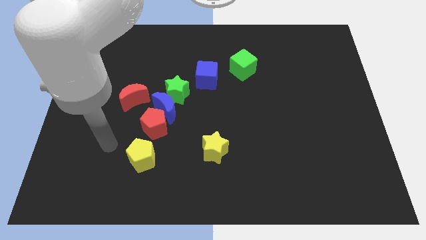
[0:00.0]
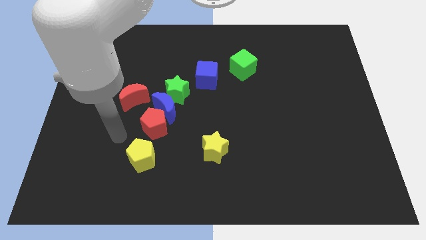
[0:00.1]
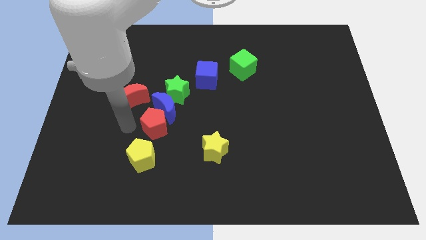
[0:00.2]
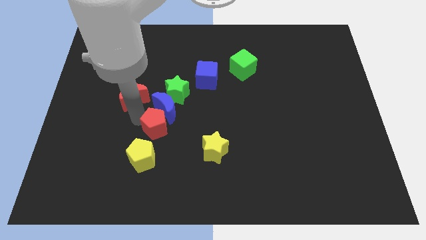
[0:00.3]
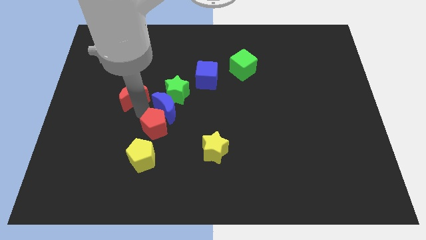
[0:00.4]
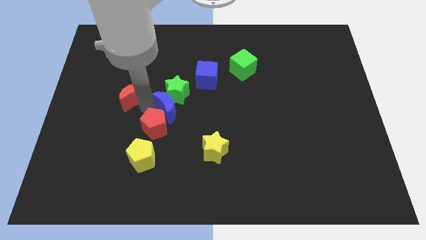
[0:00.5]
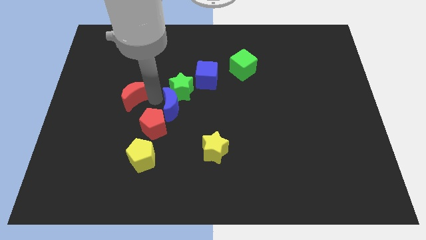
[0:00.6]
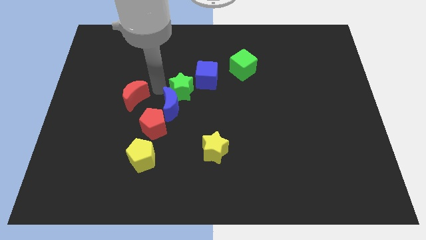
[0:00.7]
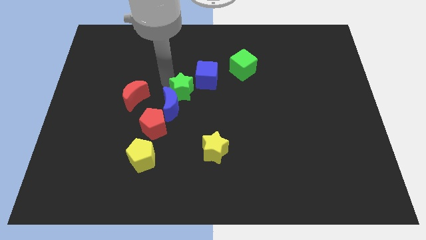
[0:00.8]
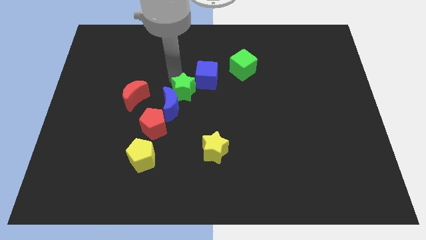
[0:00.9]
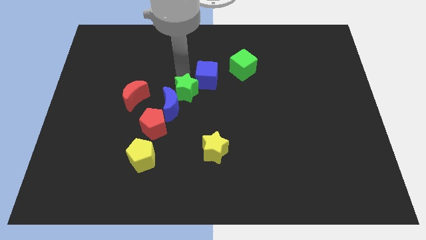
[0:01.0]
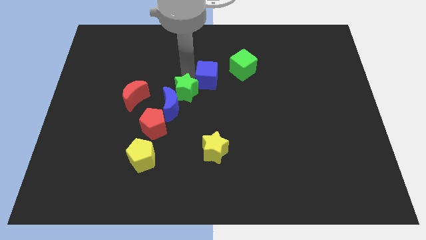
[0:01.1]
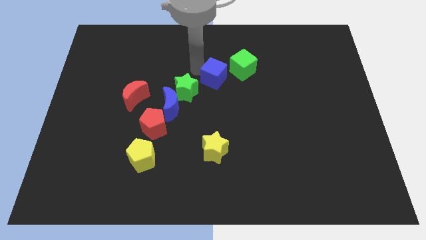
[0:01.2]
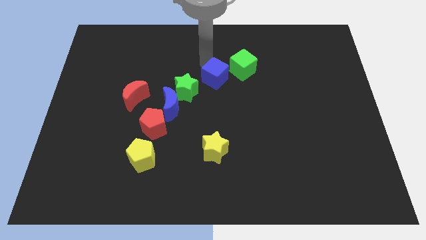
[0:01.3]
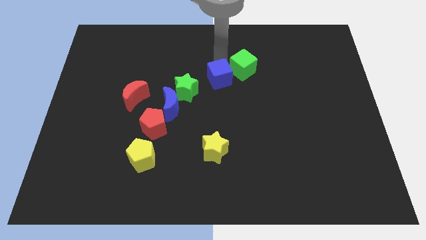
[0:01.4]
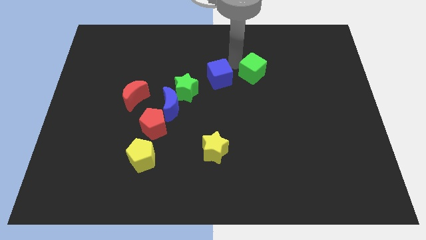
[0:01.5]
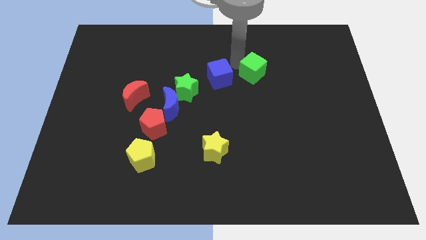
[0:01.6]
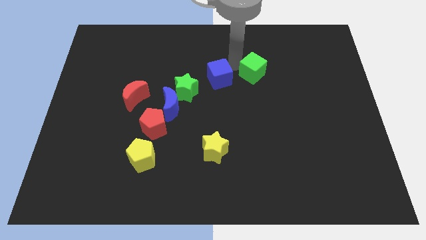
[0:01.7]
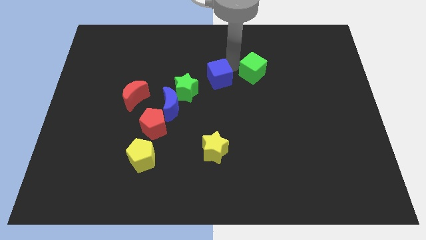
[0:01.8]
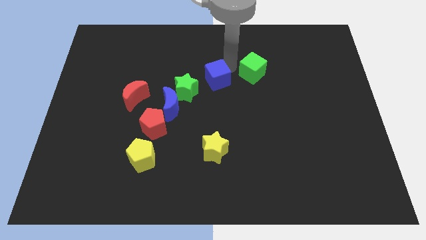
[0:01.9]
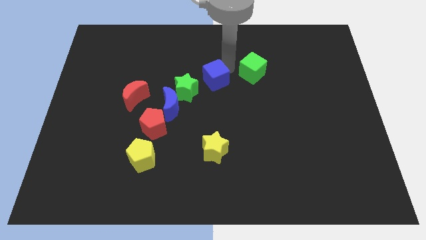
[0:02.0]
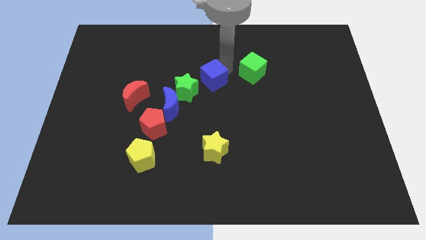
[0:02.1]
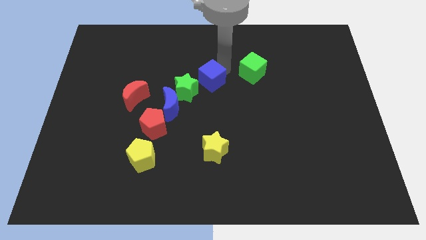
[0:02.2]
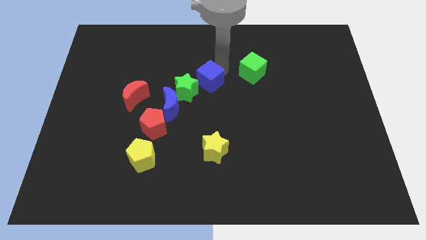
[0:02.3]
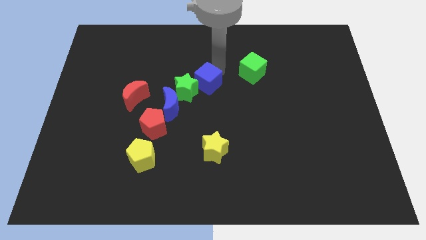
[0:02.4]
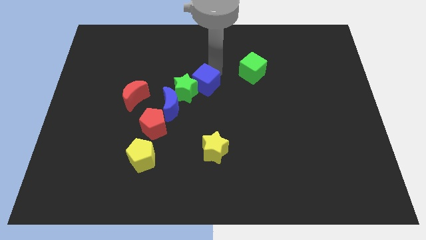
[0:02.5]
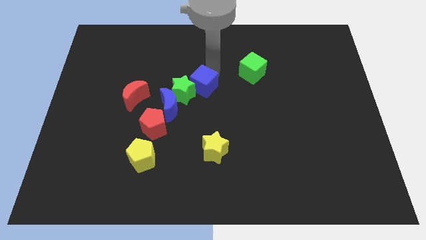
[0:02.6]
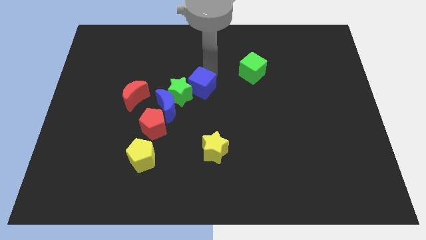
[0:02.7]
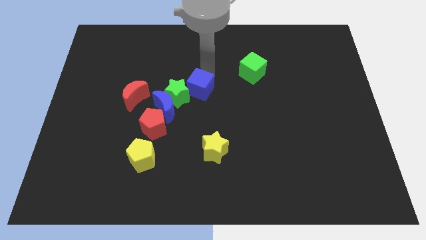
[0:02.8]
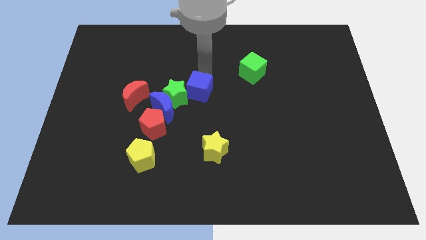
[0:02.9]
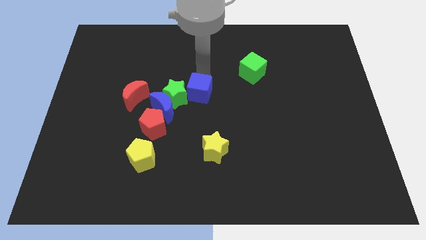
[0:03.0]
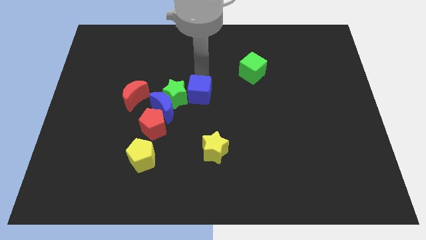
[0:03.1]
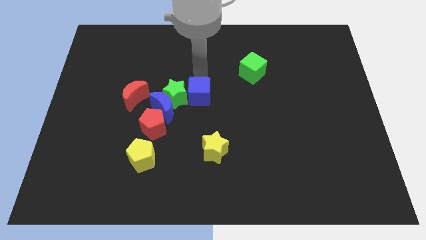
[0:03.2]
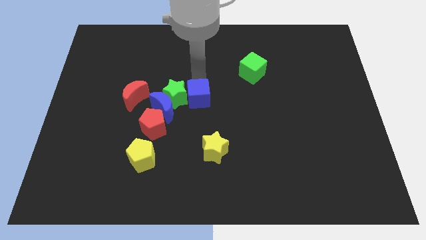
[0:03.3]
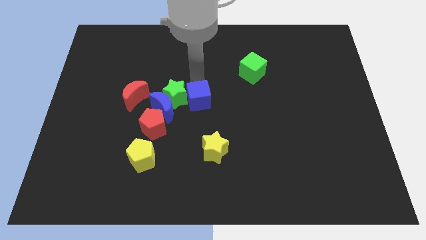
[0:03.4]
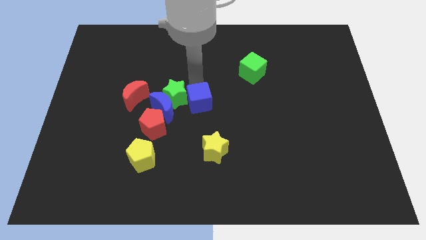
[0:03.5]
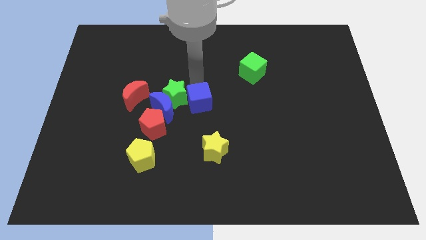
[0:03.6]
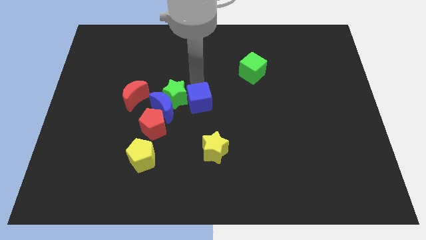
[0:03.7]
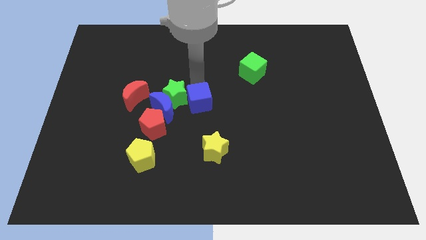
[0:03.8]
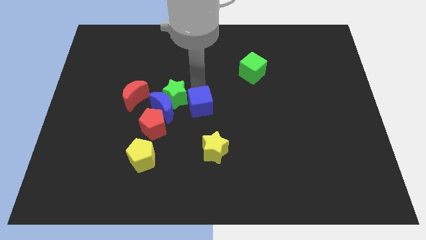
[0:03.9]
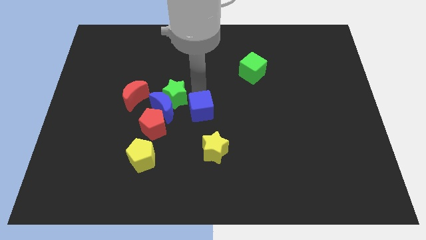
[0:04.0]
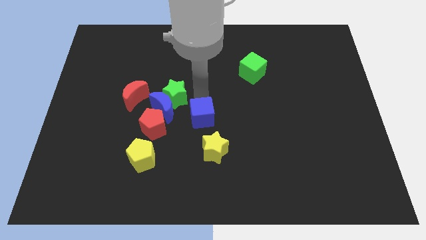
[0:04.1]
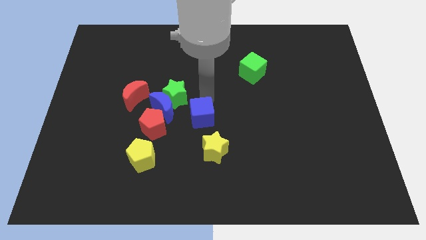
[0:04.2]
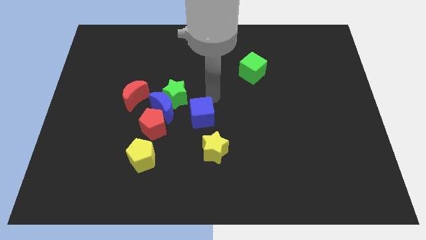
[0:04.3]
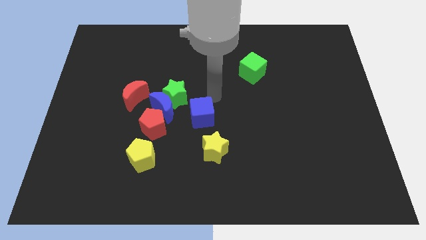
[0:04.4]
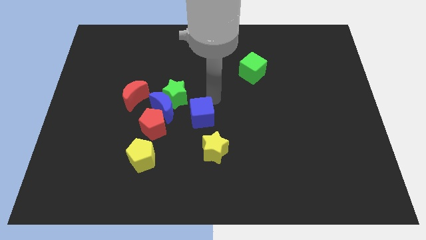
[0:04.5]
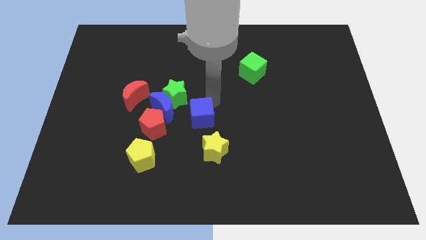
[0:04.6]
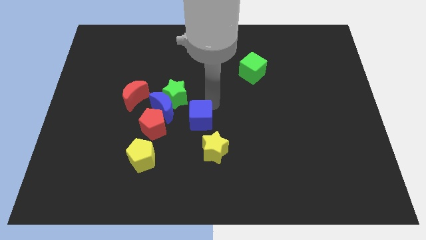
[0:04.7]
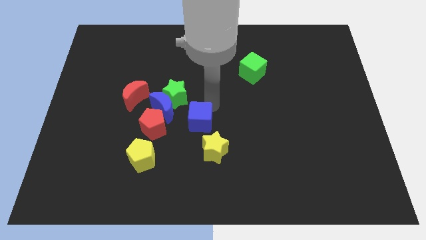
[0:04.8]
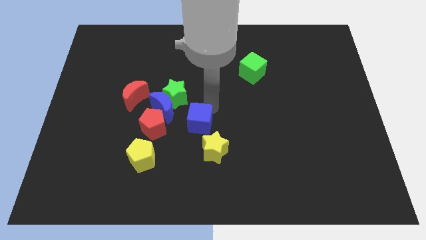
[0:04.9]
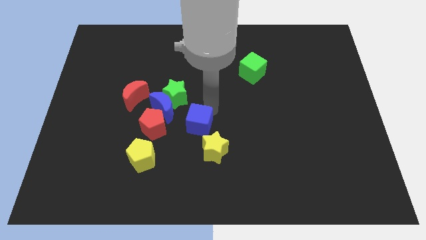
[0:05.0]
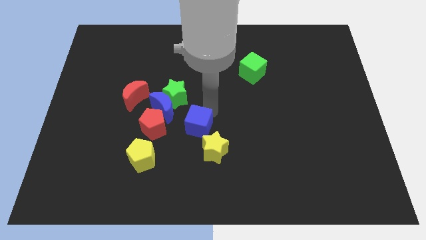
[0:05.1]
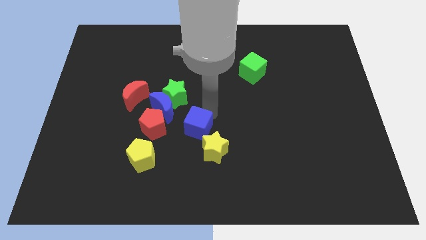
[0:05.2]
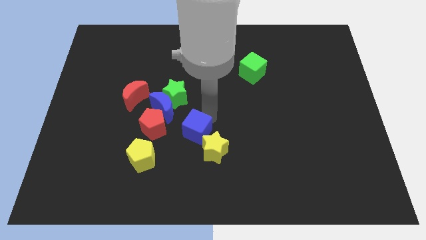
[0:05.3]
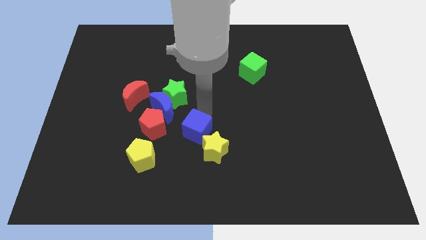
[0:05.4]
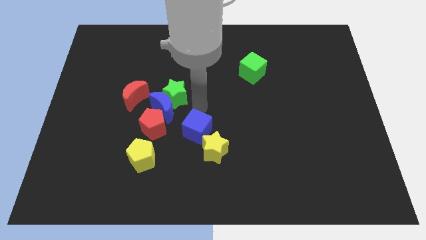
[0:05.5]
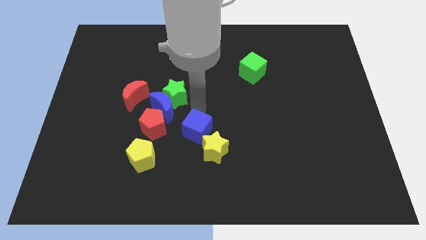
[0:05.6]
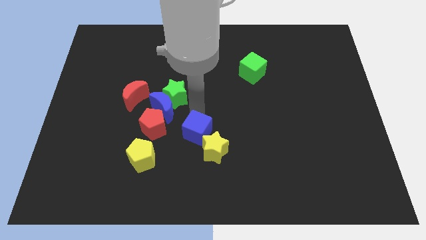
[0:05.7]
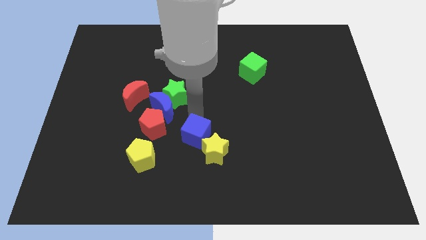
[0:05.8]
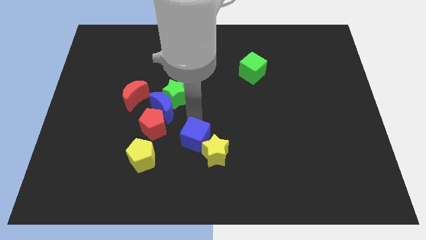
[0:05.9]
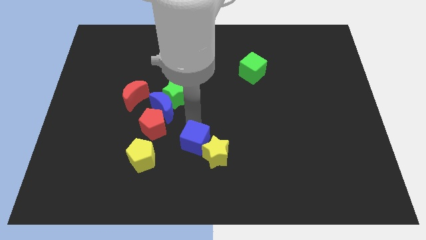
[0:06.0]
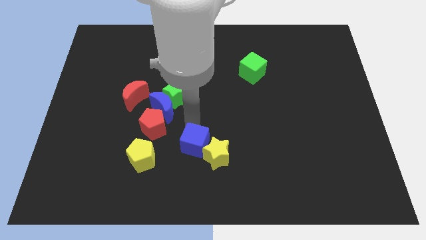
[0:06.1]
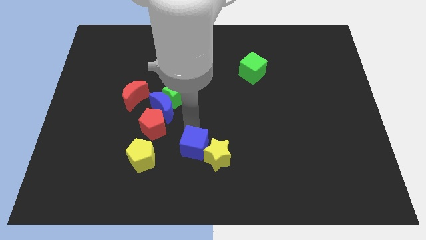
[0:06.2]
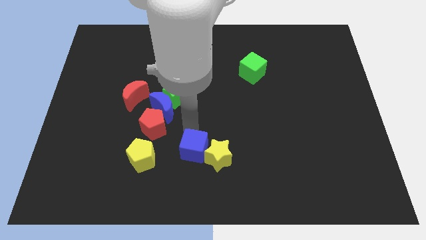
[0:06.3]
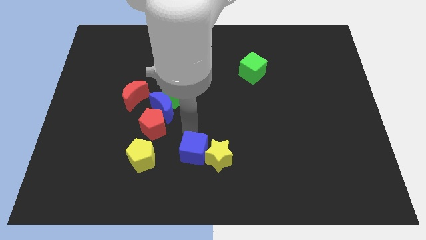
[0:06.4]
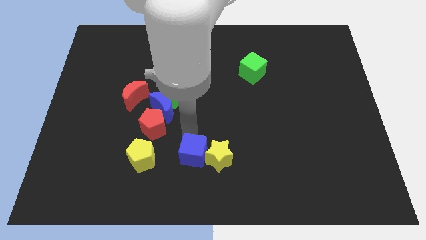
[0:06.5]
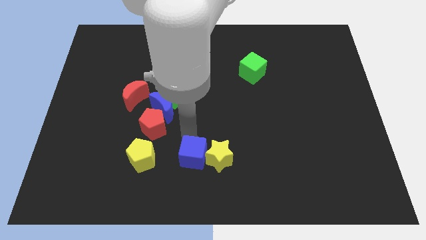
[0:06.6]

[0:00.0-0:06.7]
put the blue cube to the bottom
